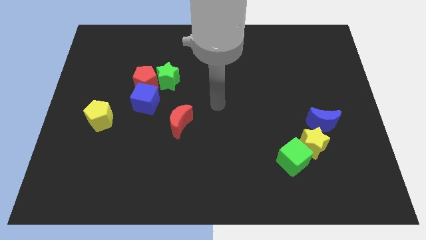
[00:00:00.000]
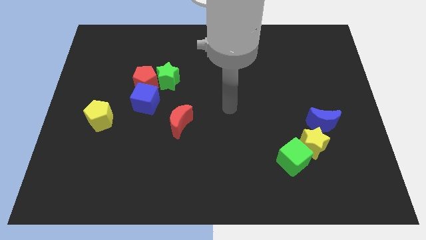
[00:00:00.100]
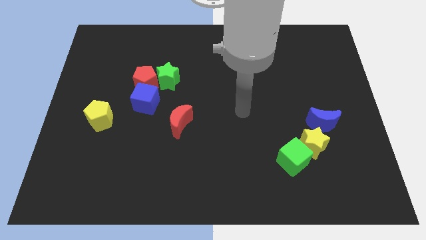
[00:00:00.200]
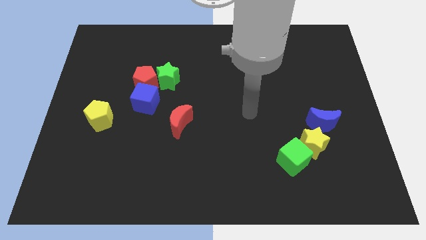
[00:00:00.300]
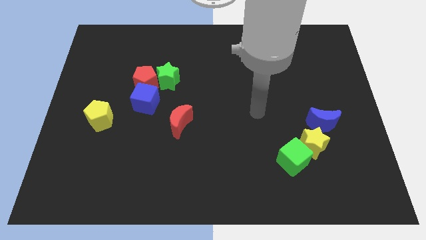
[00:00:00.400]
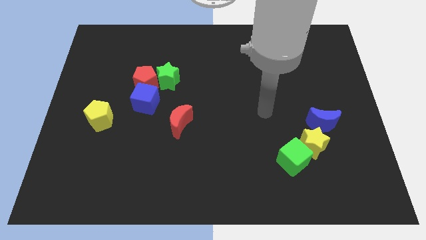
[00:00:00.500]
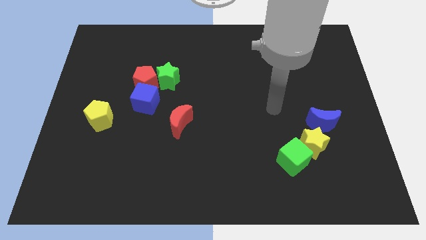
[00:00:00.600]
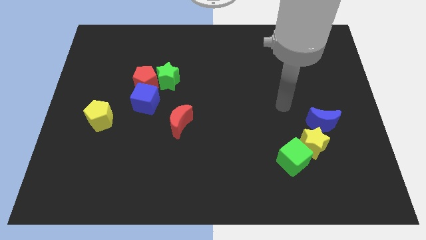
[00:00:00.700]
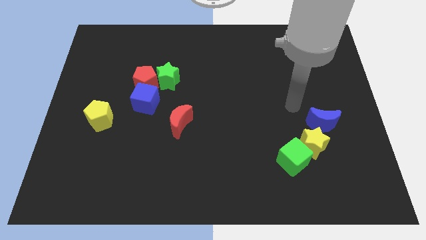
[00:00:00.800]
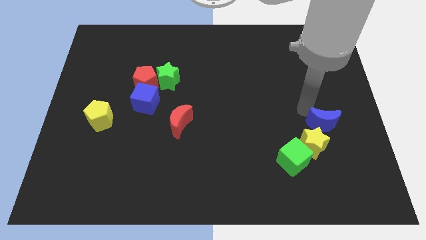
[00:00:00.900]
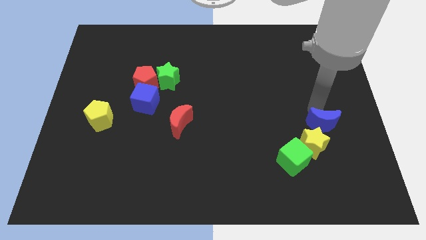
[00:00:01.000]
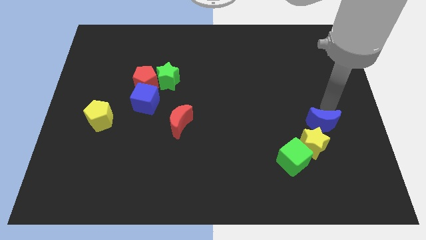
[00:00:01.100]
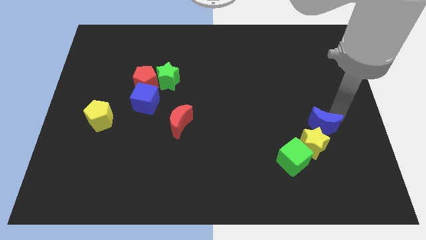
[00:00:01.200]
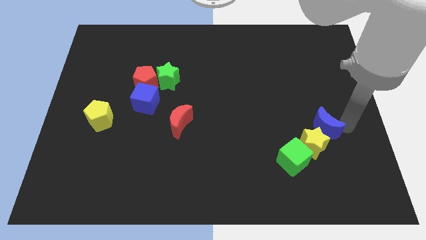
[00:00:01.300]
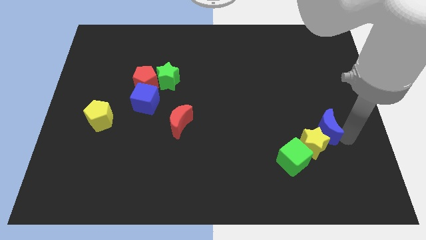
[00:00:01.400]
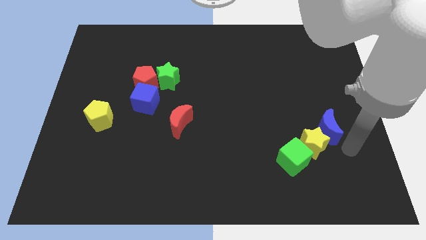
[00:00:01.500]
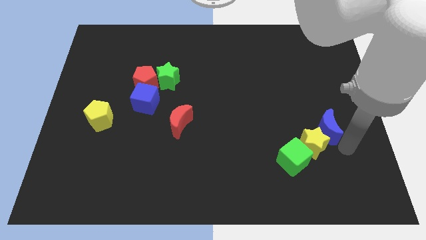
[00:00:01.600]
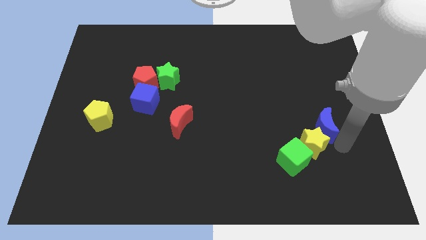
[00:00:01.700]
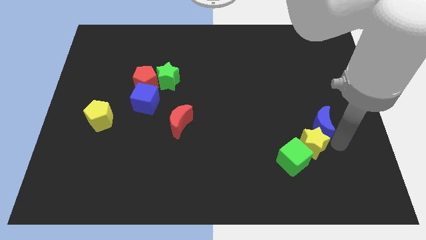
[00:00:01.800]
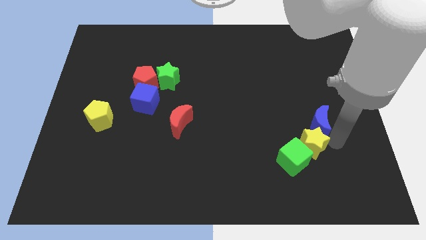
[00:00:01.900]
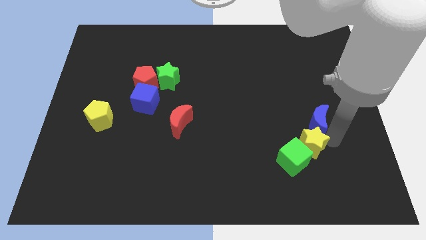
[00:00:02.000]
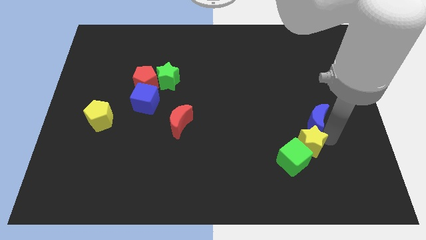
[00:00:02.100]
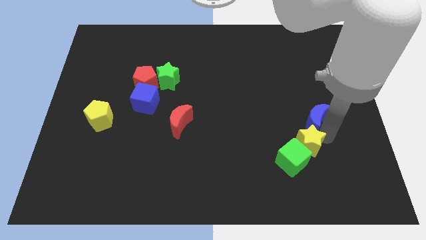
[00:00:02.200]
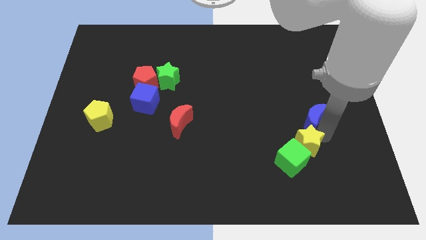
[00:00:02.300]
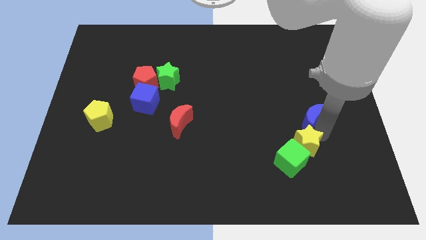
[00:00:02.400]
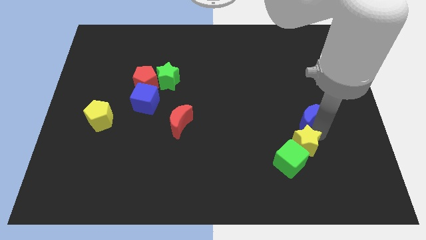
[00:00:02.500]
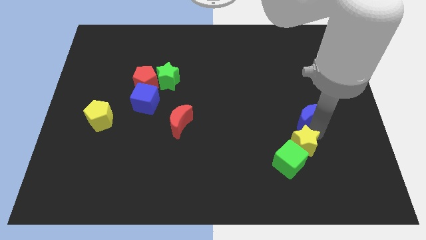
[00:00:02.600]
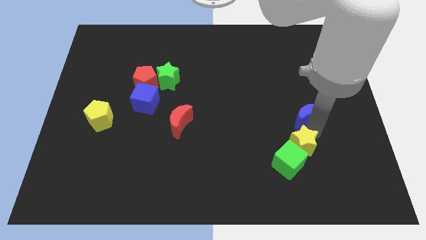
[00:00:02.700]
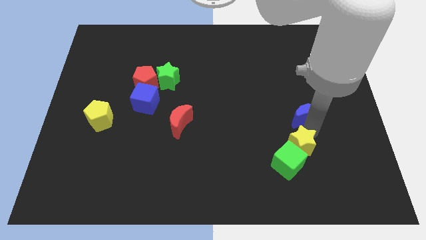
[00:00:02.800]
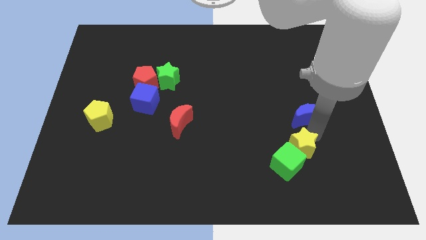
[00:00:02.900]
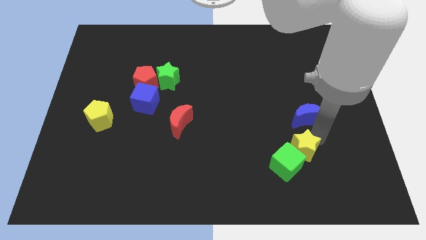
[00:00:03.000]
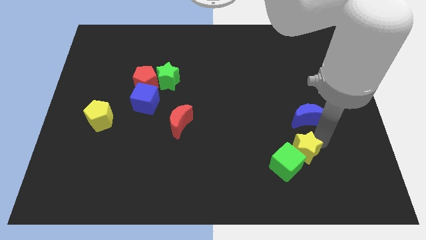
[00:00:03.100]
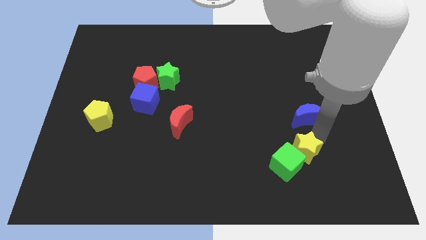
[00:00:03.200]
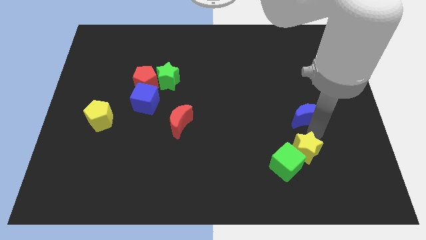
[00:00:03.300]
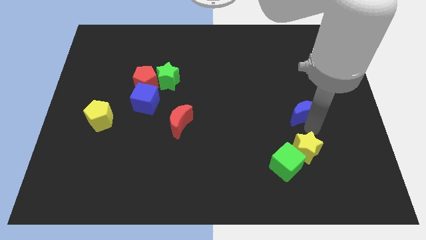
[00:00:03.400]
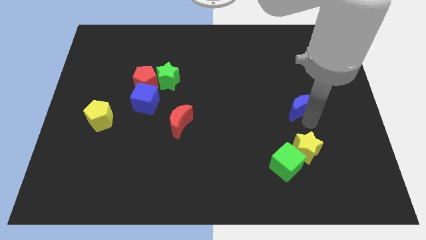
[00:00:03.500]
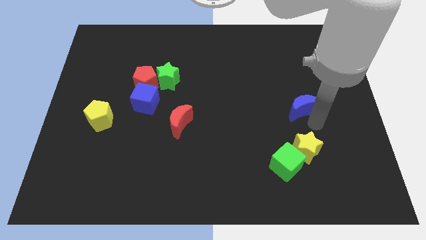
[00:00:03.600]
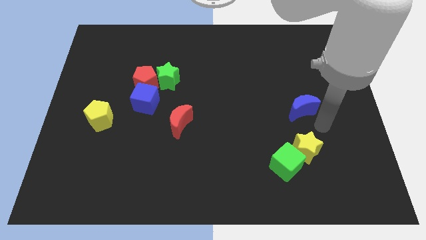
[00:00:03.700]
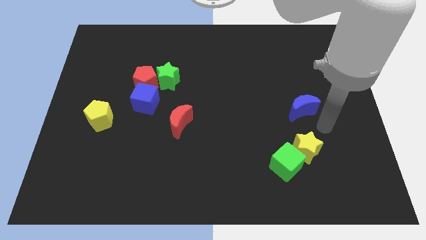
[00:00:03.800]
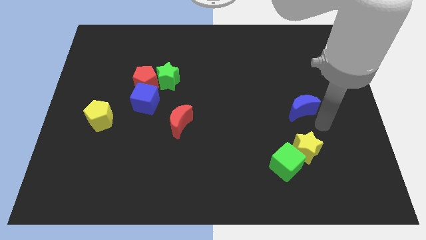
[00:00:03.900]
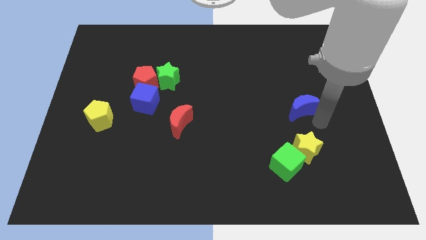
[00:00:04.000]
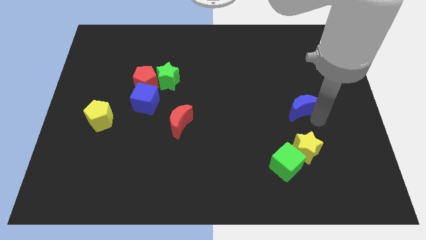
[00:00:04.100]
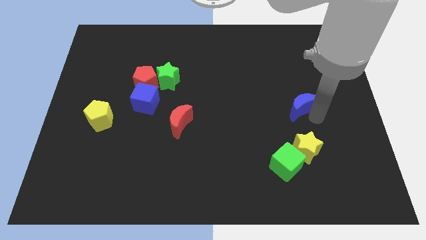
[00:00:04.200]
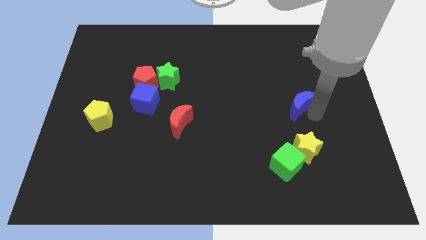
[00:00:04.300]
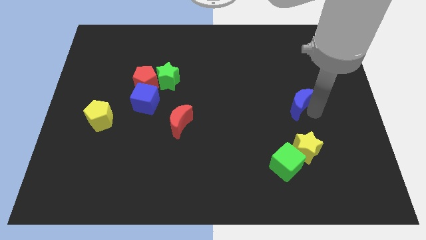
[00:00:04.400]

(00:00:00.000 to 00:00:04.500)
slide the blue moon a little diagonally up and left

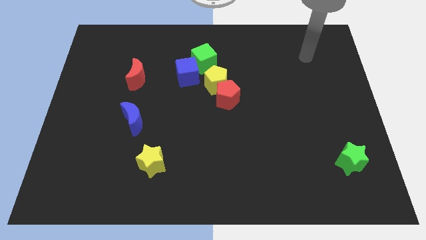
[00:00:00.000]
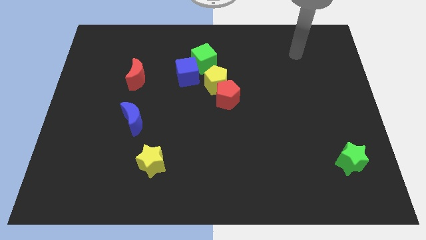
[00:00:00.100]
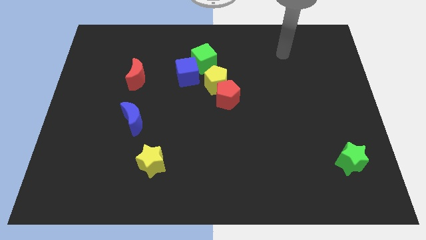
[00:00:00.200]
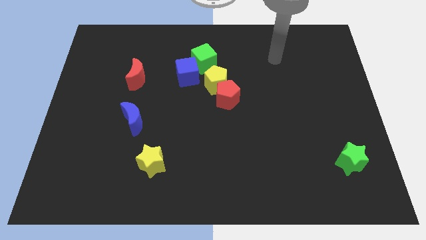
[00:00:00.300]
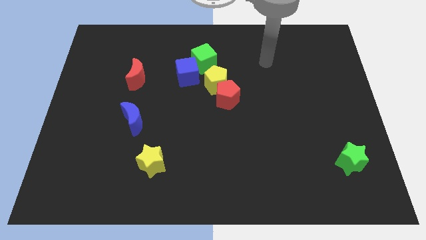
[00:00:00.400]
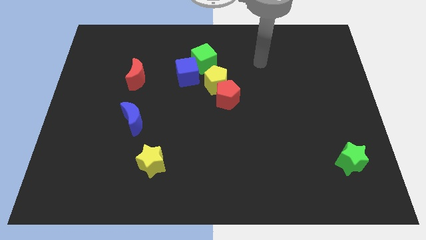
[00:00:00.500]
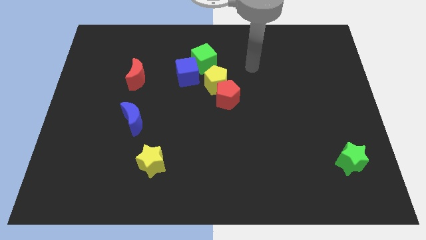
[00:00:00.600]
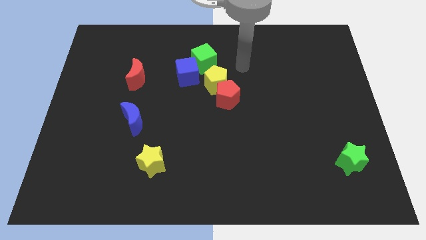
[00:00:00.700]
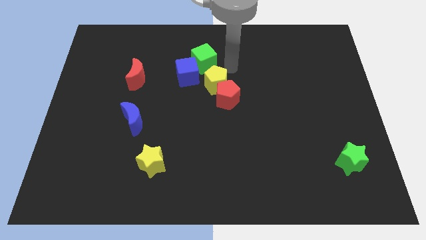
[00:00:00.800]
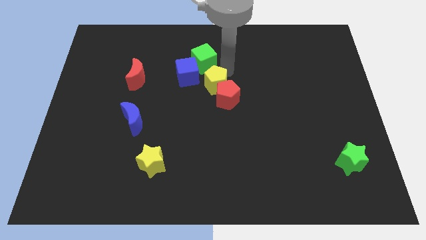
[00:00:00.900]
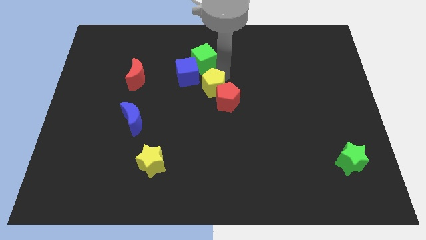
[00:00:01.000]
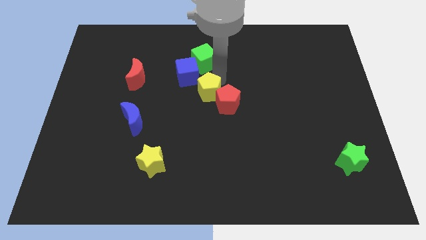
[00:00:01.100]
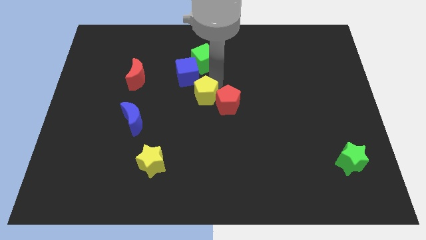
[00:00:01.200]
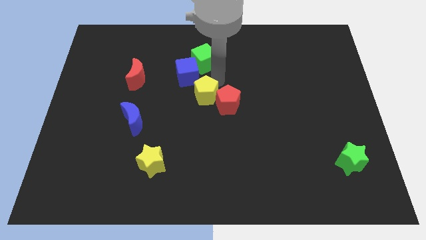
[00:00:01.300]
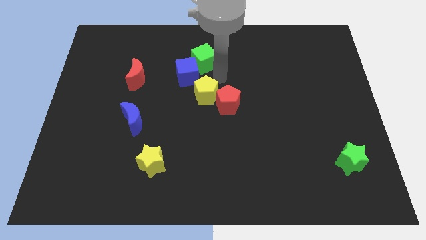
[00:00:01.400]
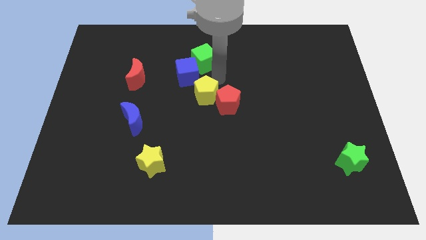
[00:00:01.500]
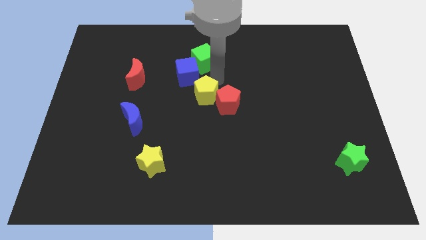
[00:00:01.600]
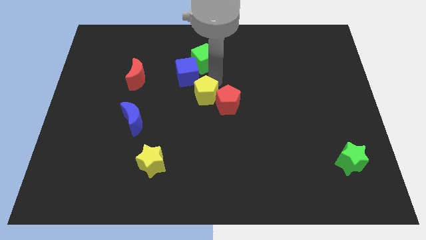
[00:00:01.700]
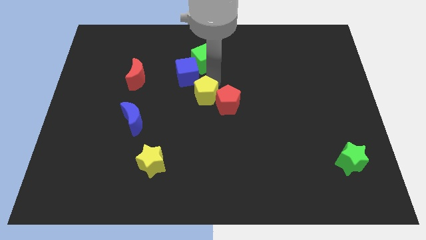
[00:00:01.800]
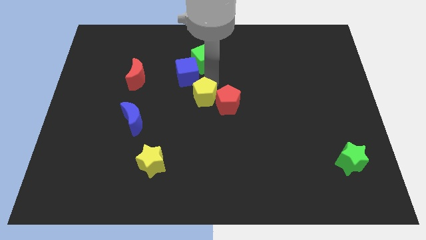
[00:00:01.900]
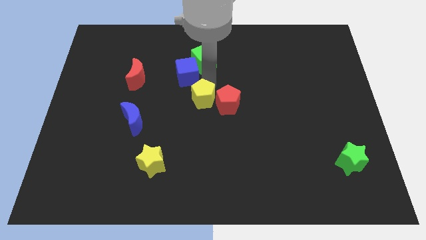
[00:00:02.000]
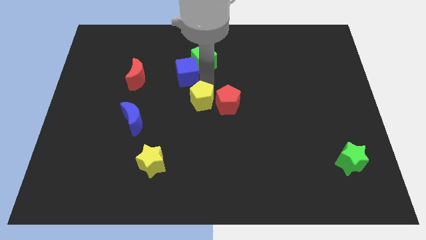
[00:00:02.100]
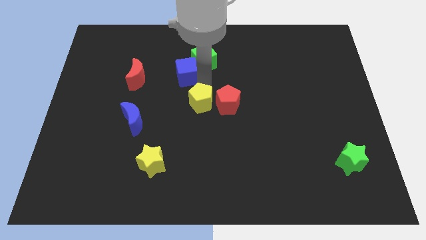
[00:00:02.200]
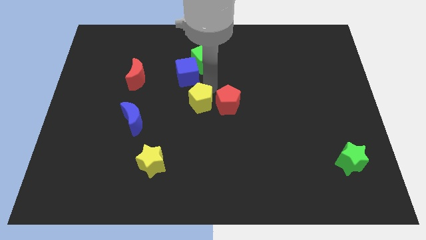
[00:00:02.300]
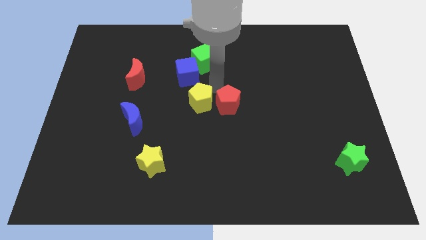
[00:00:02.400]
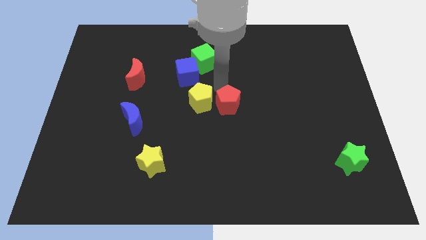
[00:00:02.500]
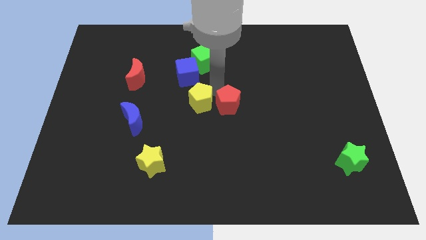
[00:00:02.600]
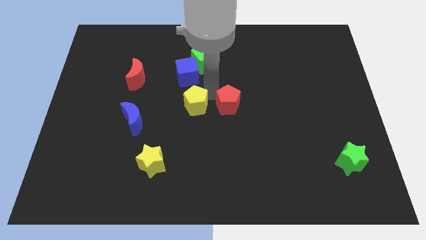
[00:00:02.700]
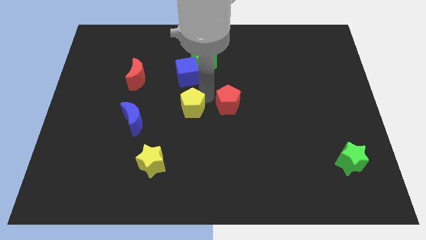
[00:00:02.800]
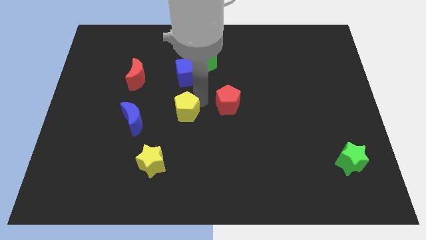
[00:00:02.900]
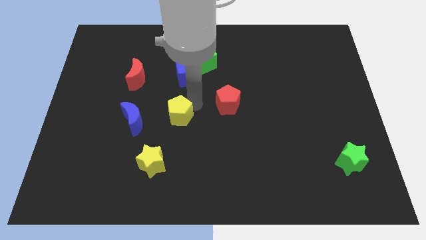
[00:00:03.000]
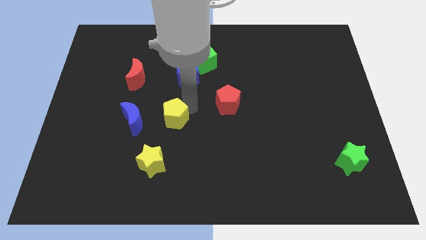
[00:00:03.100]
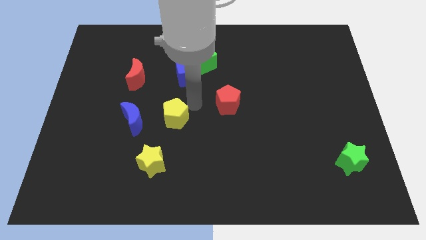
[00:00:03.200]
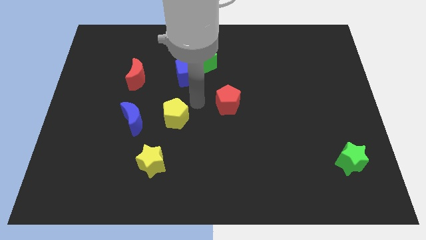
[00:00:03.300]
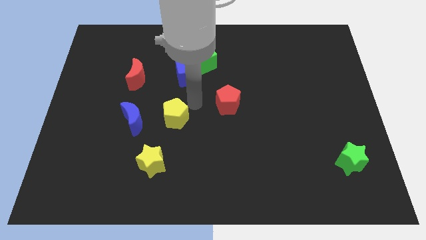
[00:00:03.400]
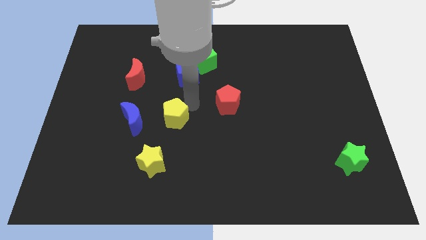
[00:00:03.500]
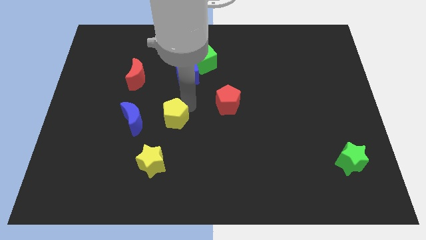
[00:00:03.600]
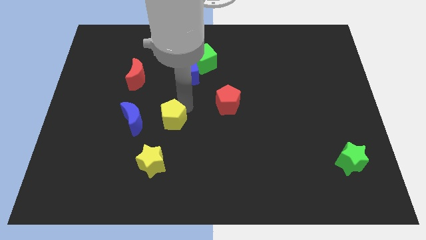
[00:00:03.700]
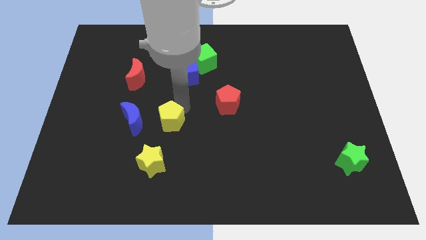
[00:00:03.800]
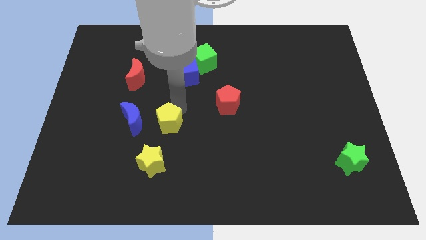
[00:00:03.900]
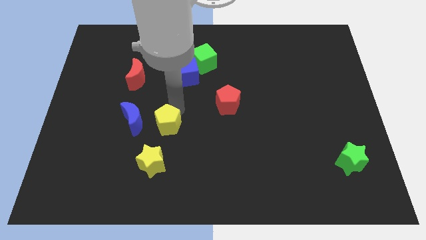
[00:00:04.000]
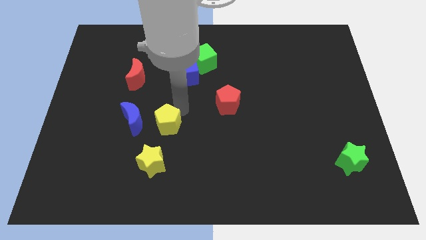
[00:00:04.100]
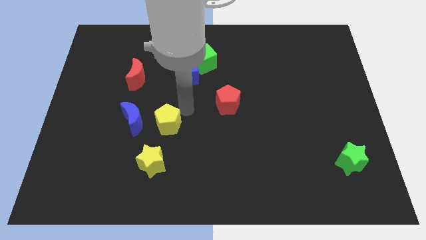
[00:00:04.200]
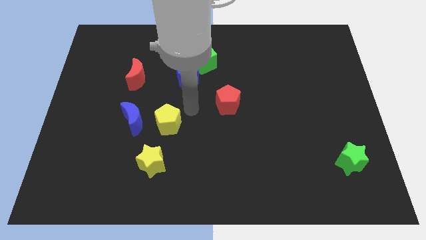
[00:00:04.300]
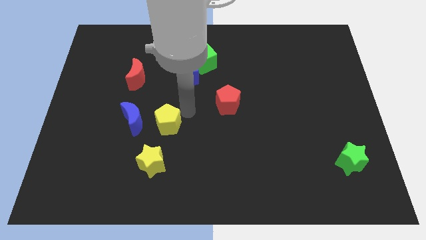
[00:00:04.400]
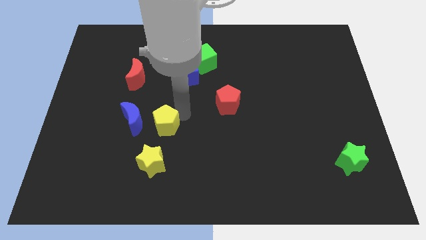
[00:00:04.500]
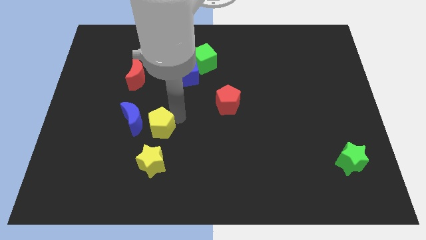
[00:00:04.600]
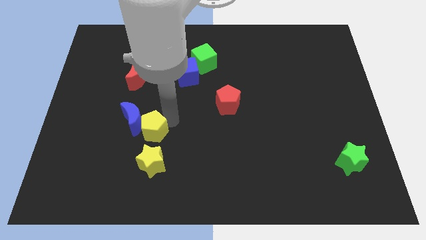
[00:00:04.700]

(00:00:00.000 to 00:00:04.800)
move the yellow pentagon downwards and to the left
